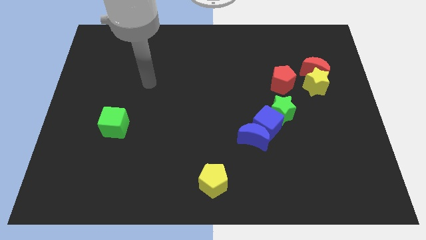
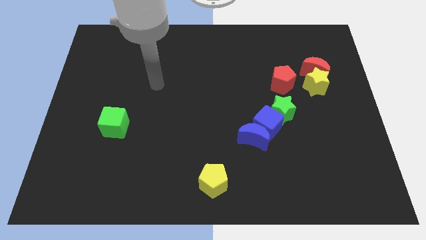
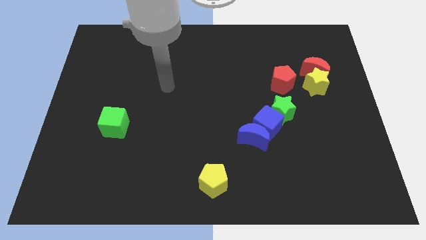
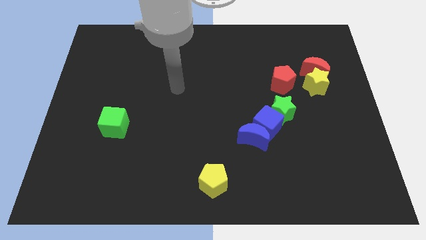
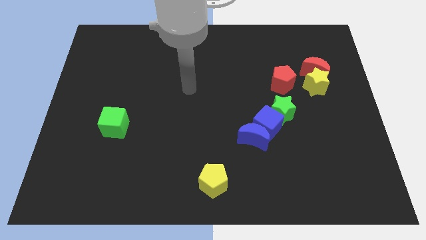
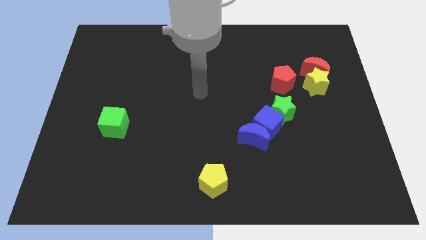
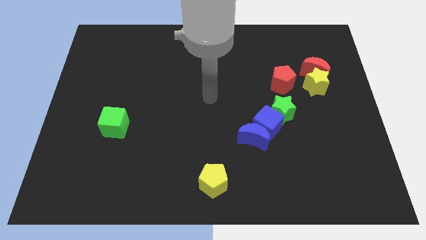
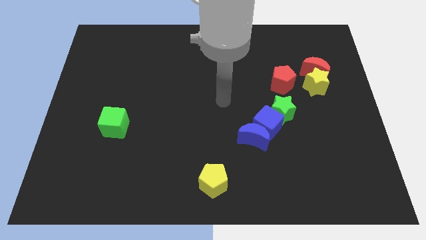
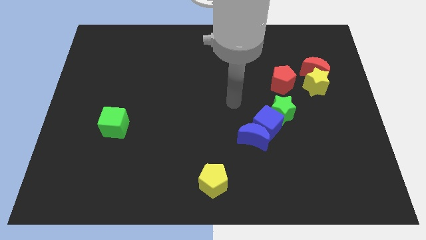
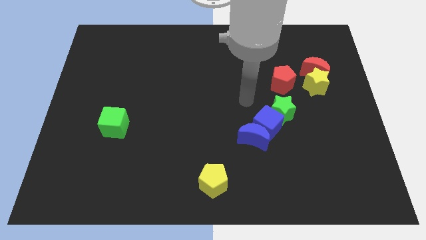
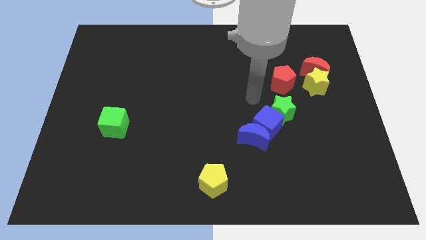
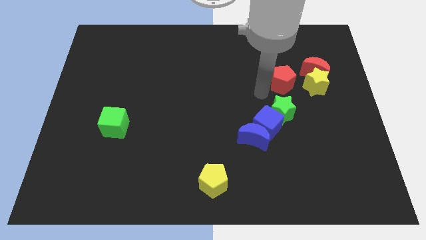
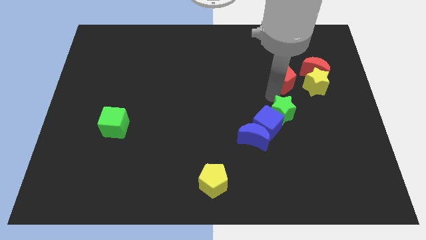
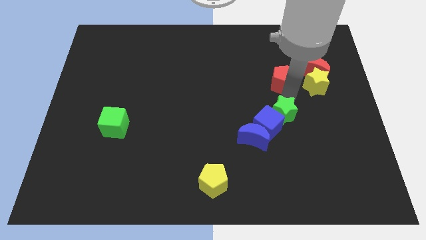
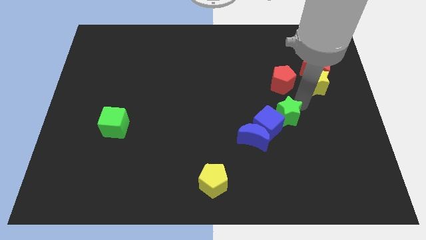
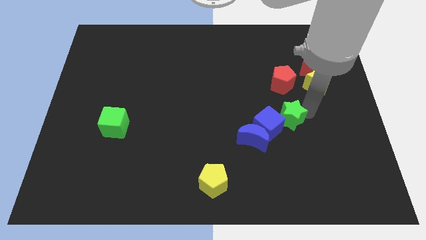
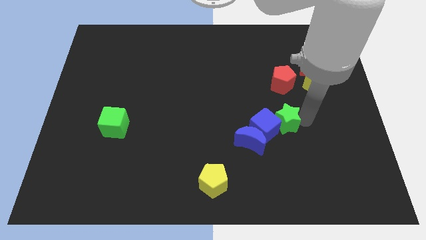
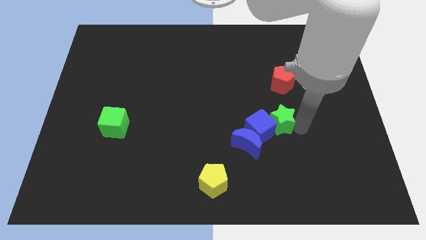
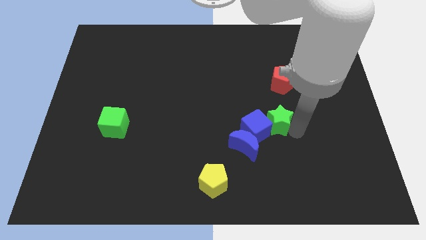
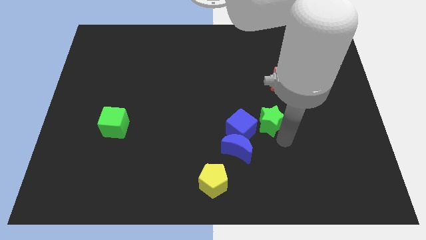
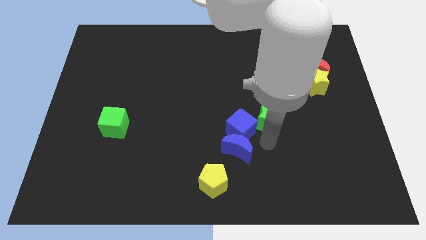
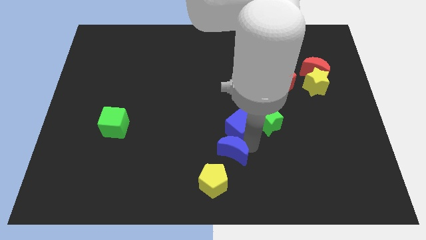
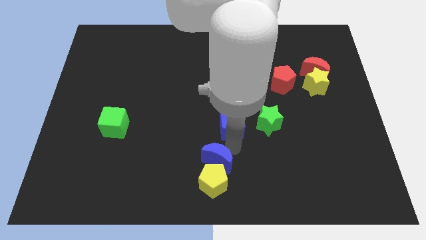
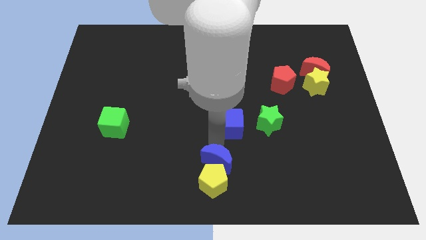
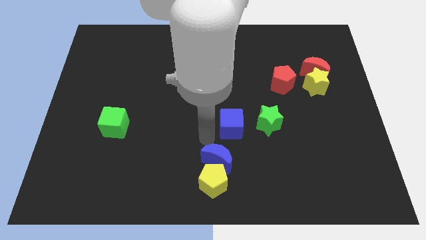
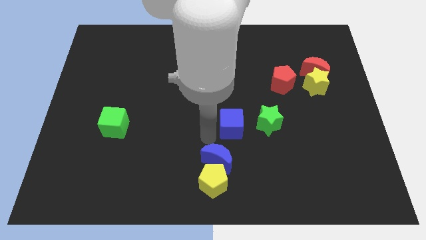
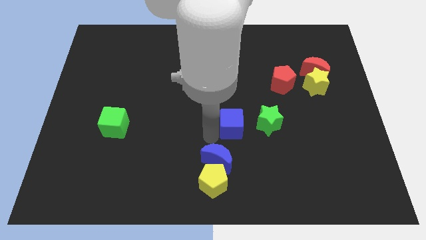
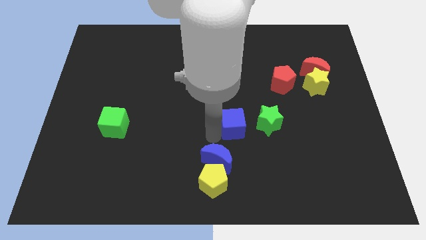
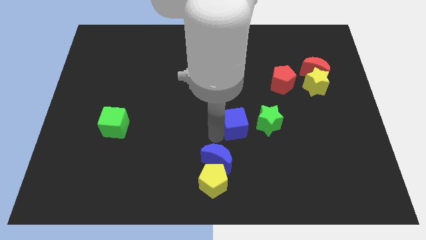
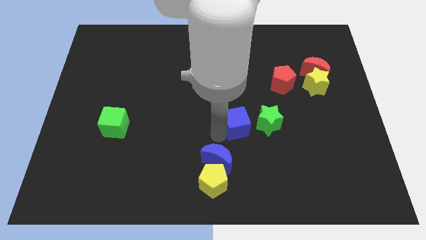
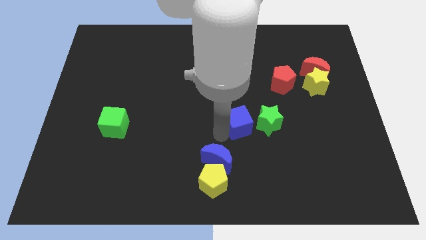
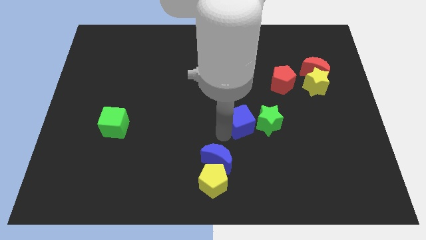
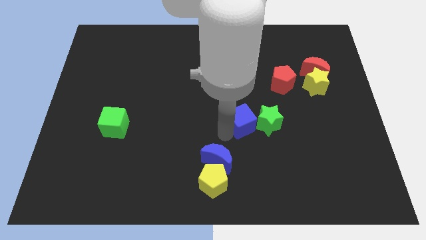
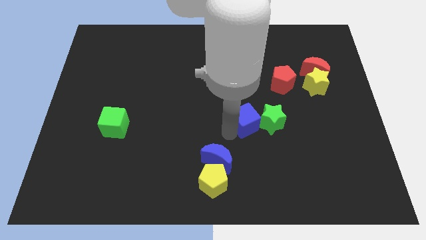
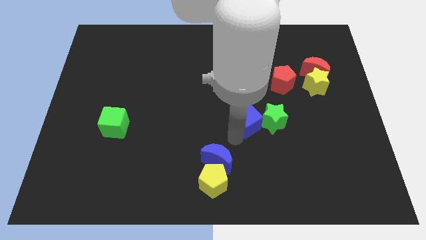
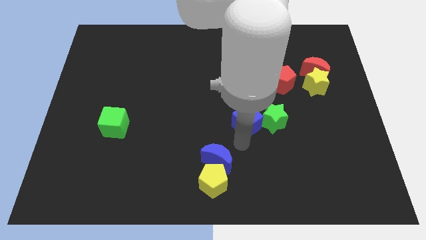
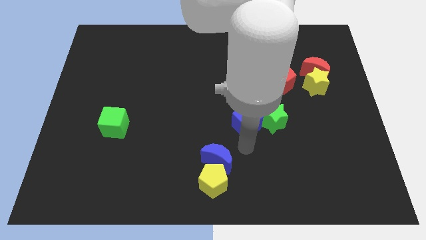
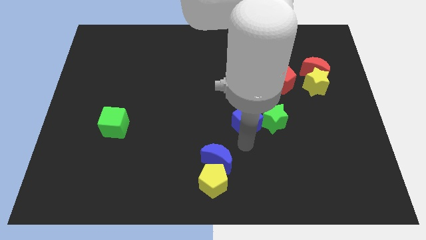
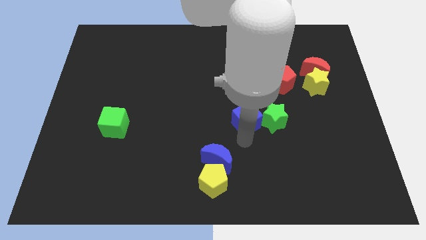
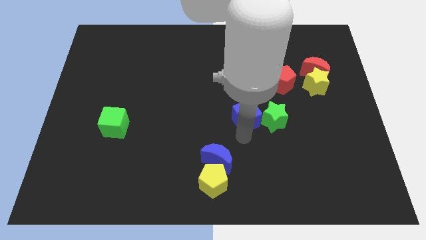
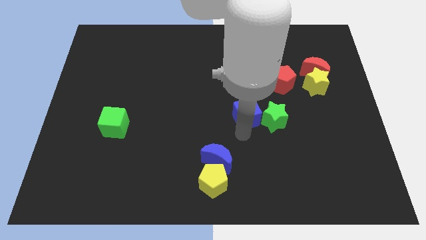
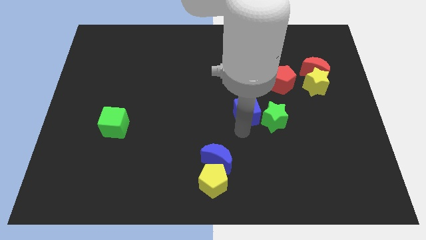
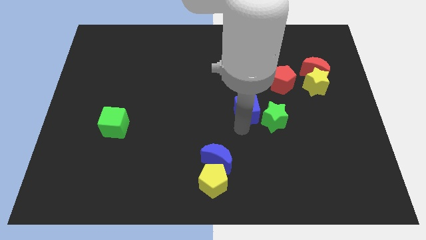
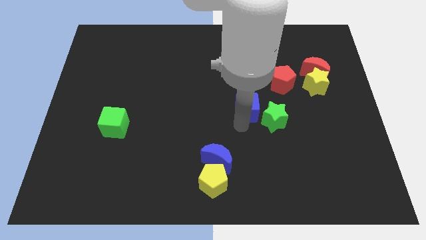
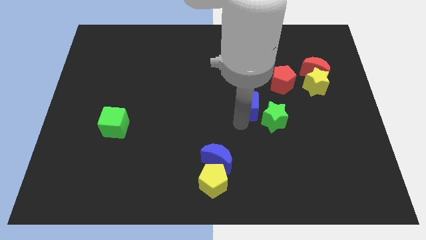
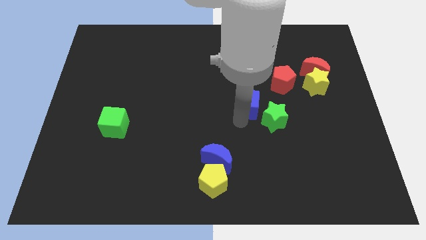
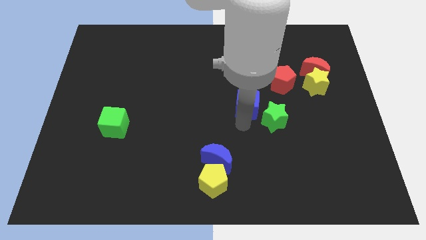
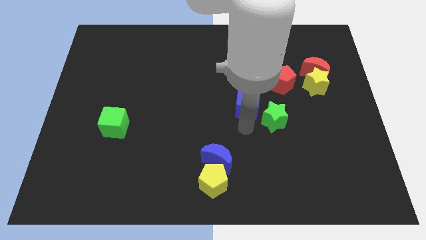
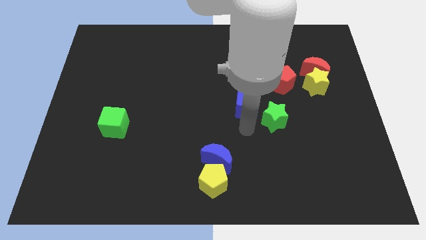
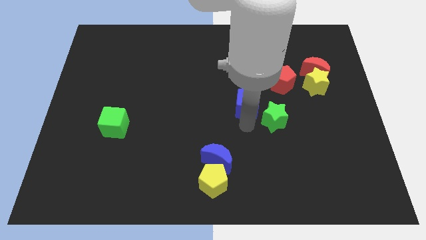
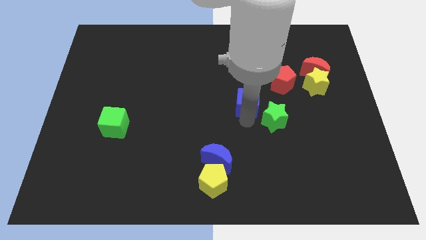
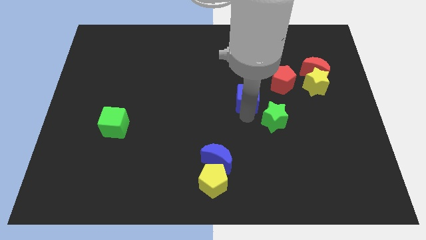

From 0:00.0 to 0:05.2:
move the blue cube away from the blue moon and green star

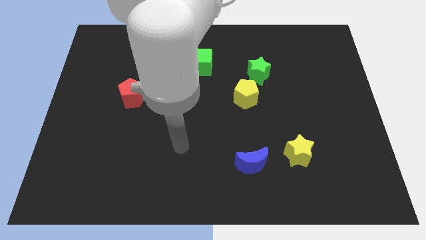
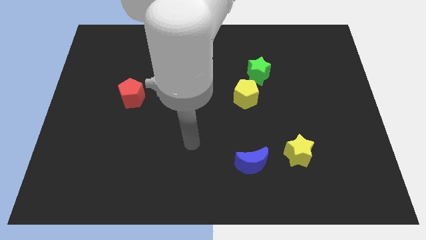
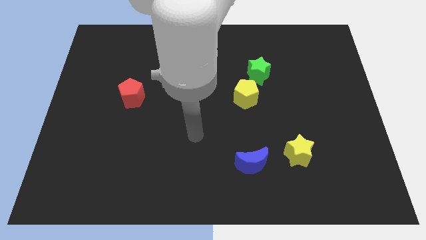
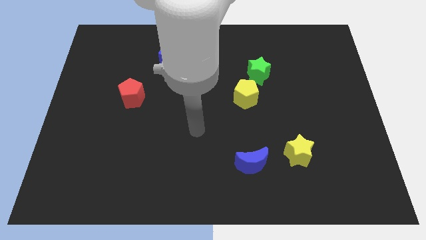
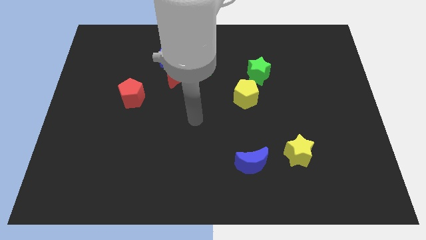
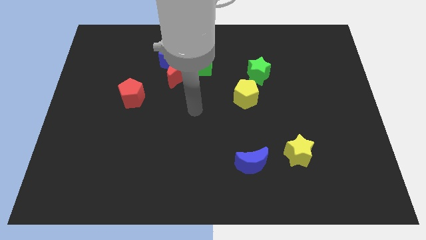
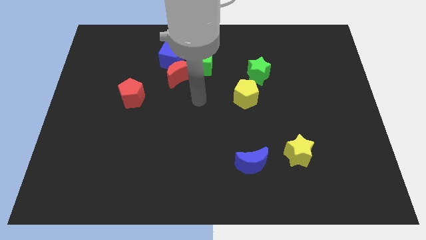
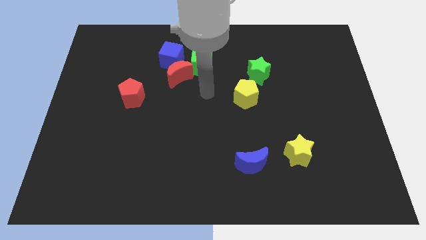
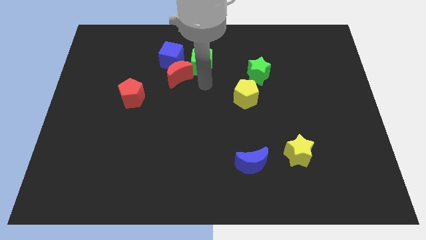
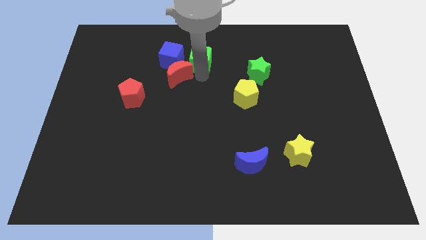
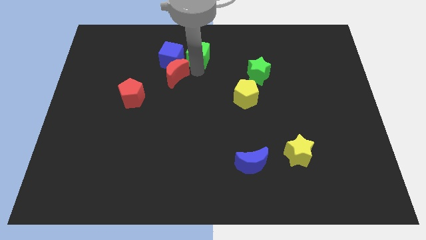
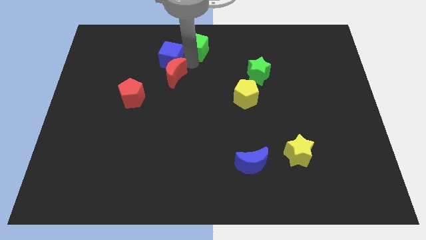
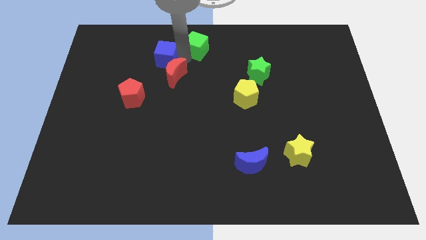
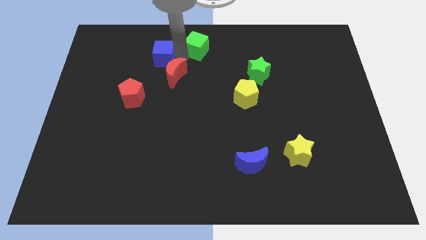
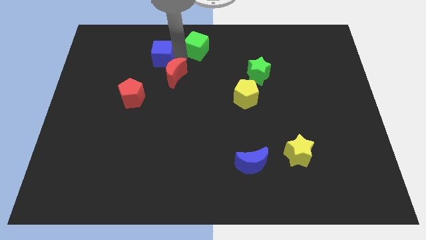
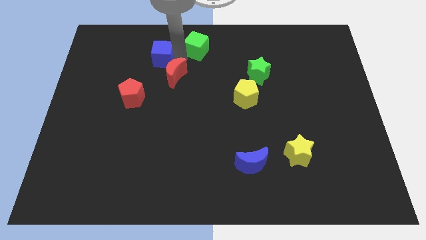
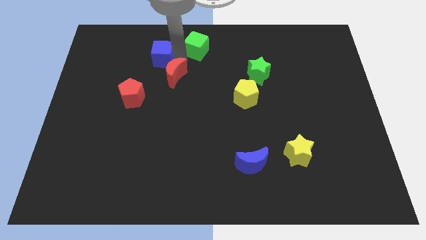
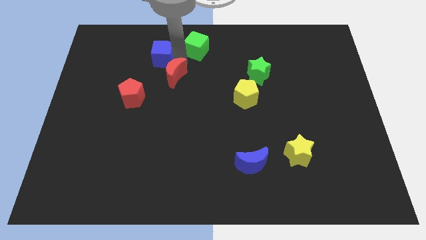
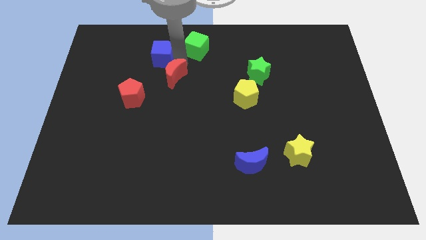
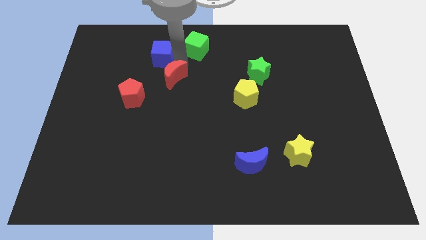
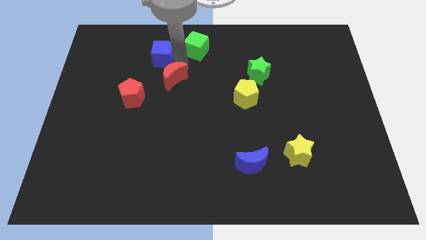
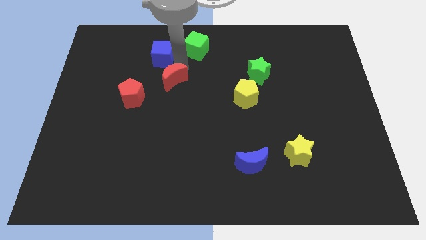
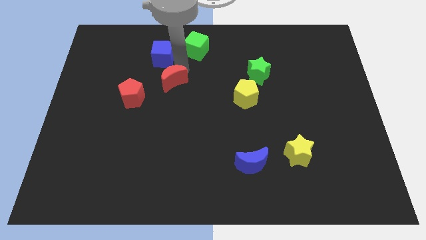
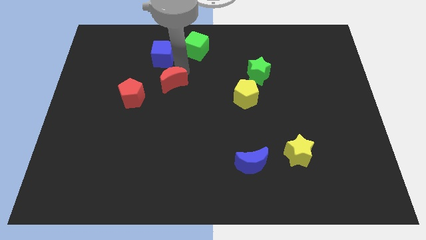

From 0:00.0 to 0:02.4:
move the red moon away from the blue cube and green cube

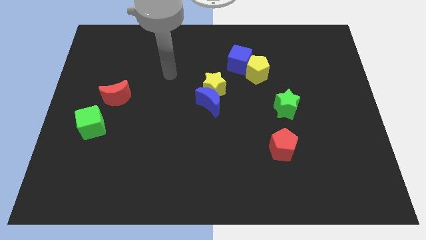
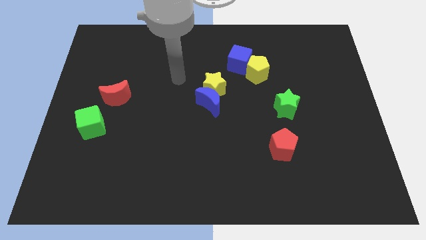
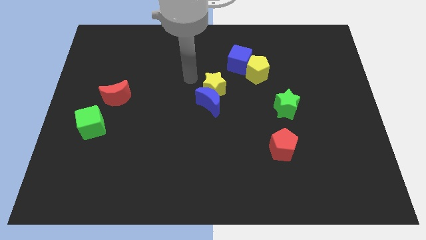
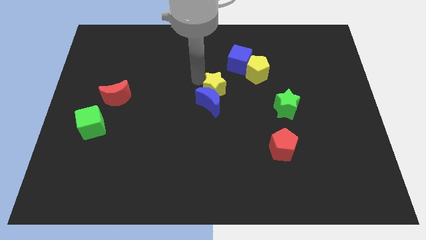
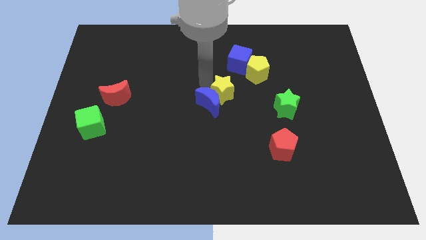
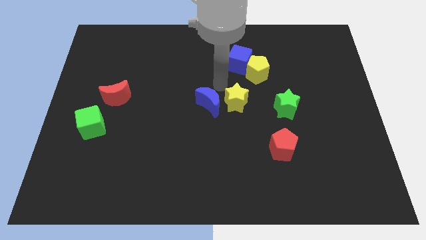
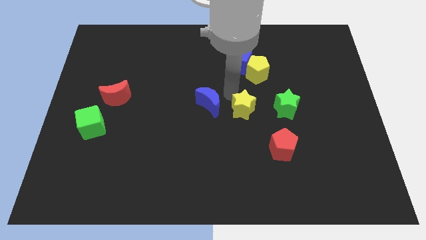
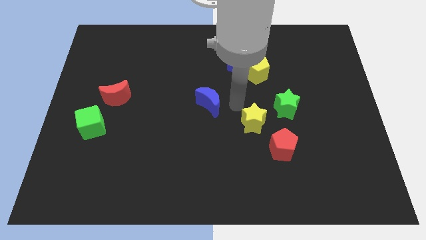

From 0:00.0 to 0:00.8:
separate the blue moon from the yellow star

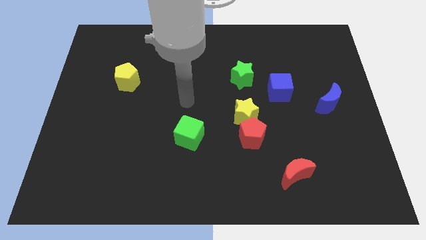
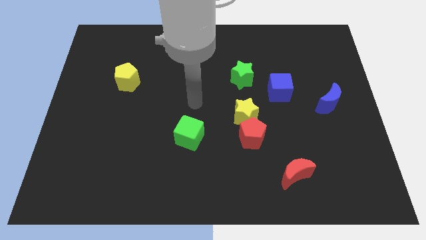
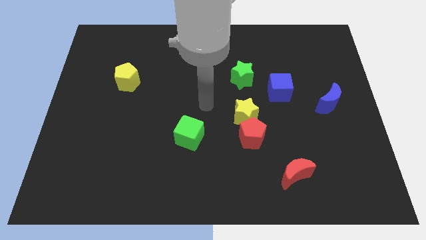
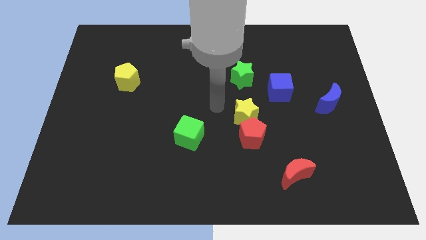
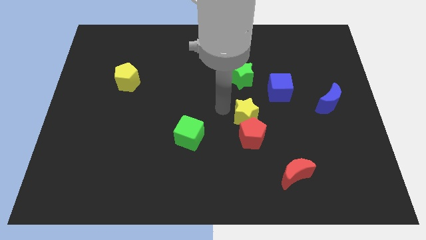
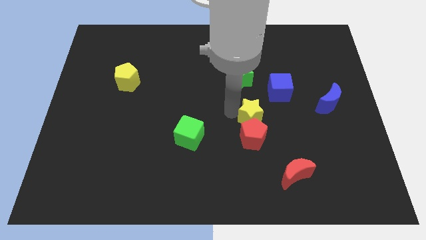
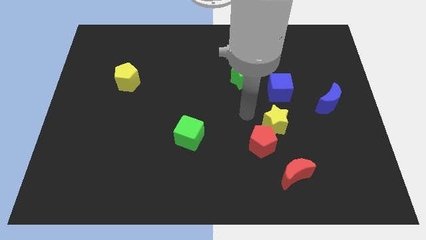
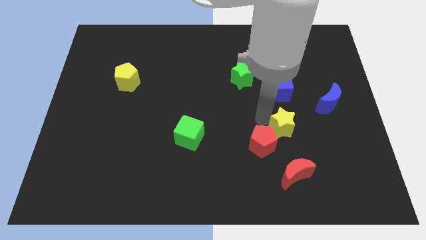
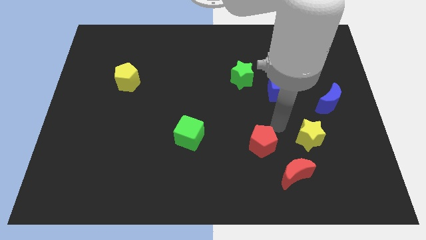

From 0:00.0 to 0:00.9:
separate the red pentagon from the yellow star

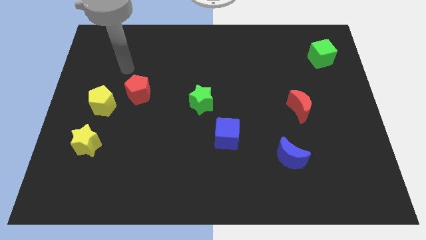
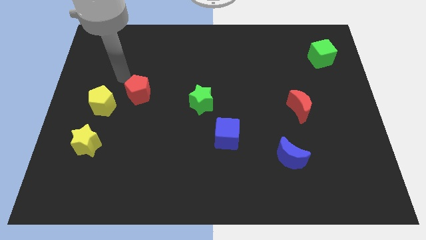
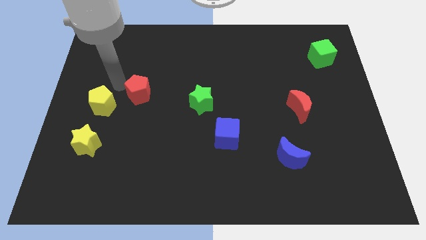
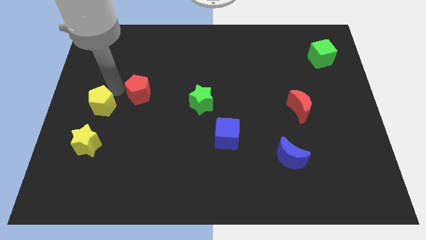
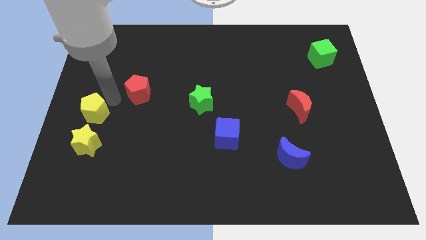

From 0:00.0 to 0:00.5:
separate the red pentagon from the yellow pentagon
